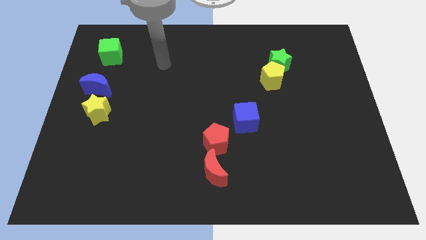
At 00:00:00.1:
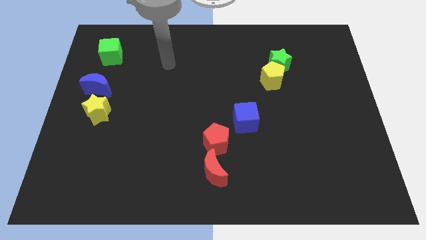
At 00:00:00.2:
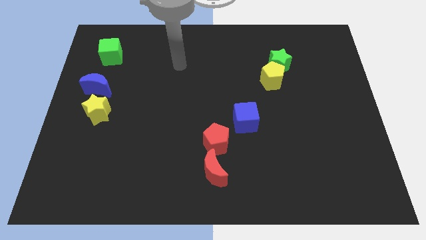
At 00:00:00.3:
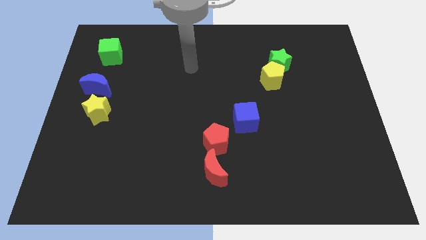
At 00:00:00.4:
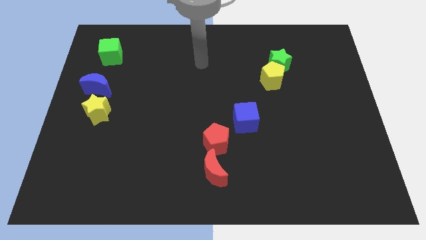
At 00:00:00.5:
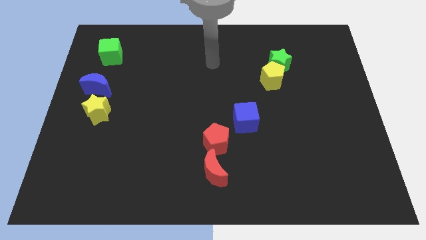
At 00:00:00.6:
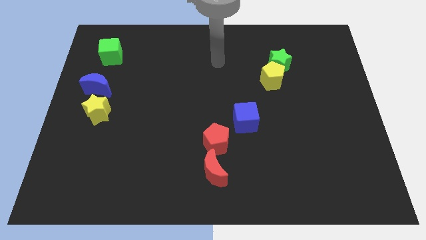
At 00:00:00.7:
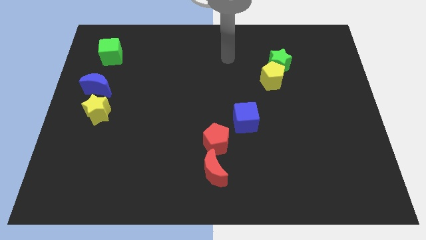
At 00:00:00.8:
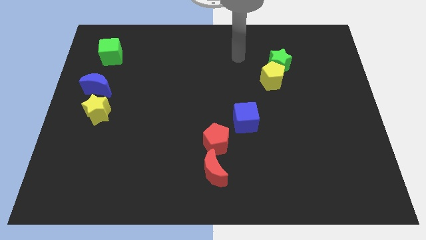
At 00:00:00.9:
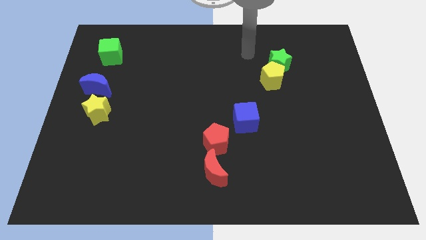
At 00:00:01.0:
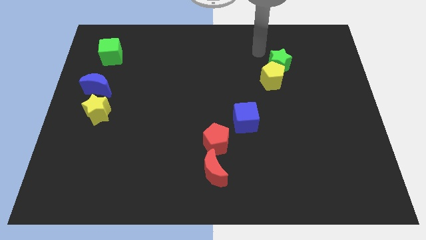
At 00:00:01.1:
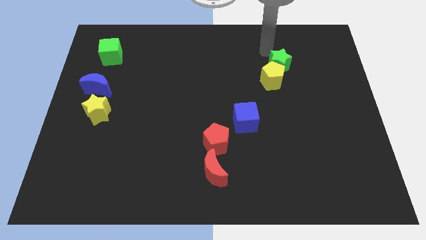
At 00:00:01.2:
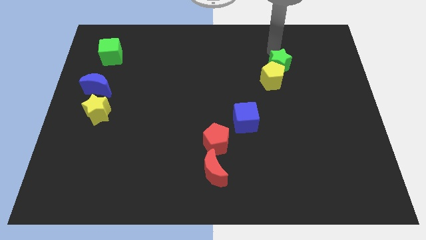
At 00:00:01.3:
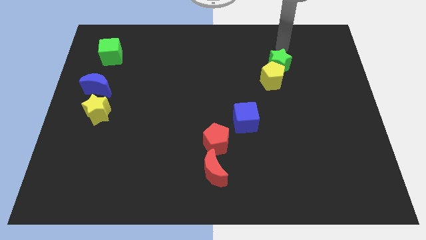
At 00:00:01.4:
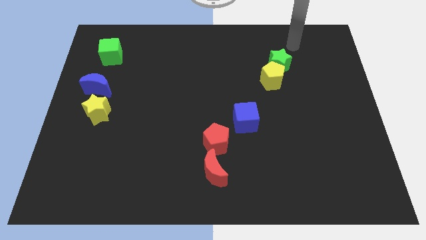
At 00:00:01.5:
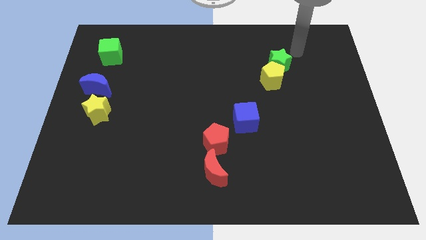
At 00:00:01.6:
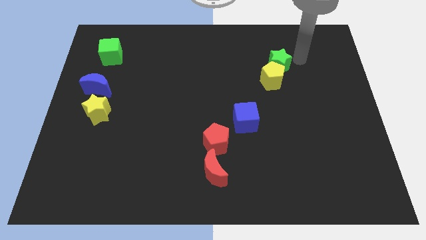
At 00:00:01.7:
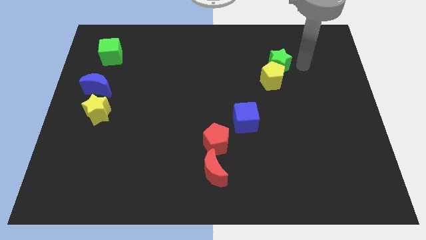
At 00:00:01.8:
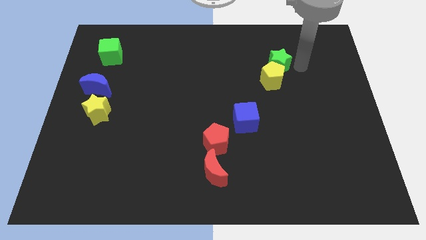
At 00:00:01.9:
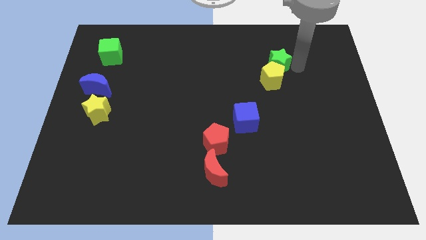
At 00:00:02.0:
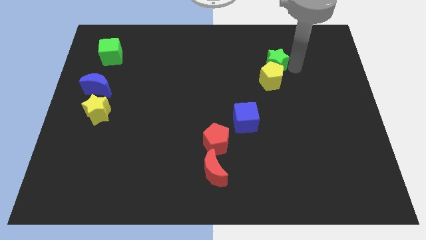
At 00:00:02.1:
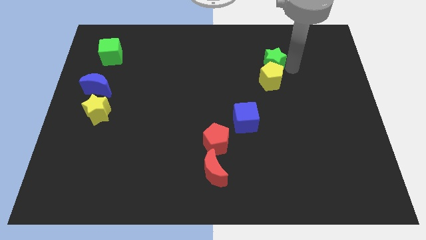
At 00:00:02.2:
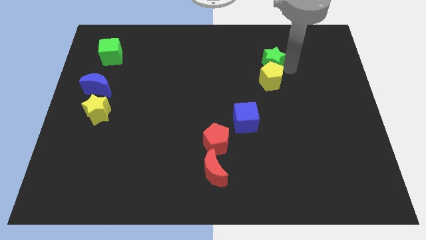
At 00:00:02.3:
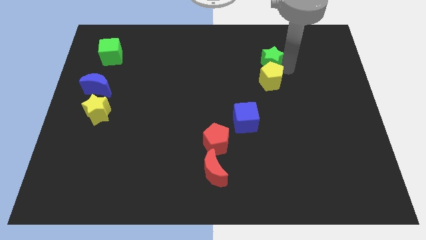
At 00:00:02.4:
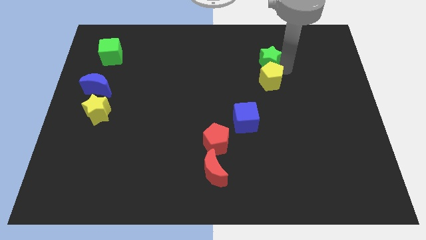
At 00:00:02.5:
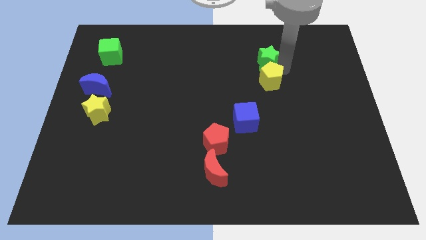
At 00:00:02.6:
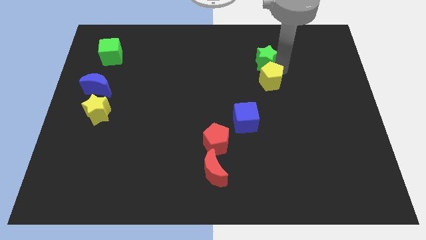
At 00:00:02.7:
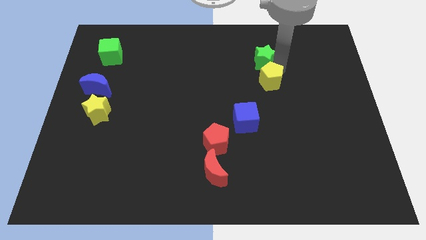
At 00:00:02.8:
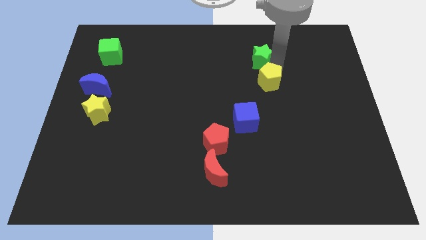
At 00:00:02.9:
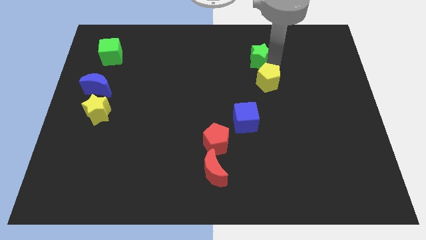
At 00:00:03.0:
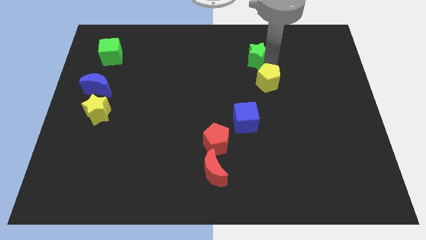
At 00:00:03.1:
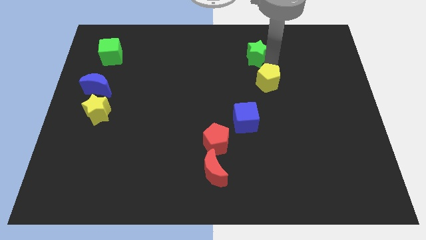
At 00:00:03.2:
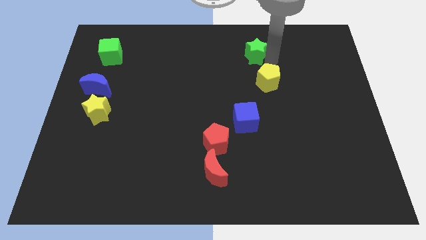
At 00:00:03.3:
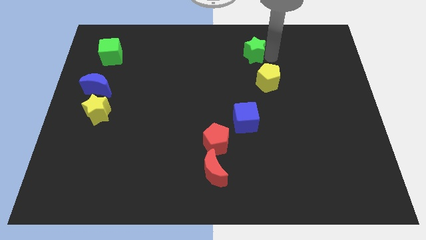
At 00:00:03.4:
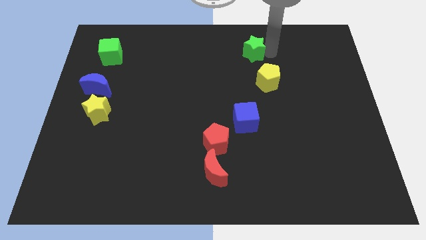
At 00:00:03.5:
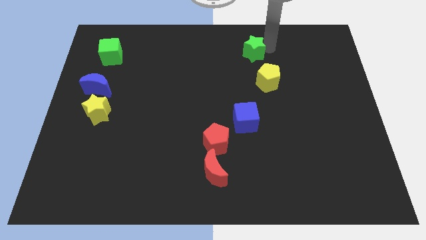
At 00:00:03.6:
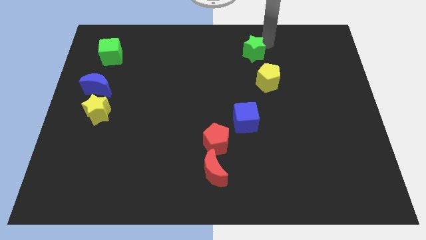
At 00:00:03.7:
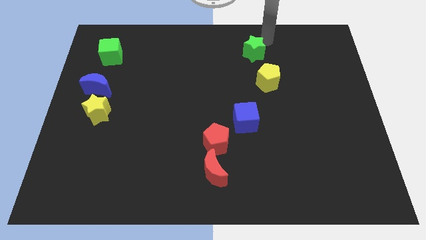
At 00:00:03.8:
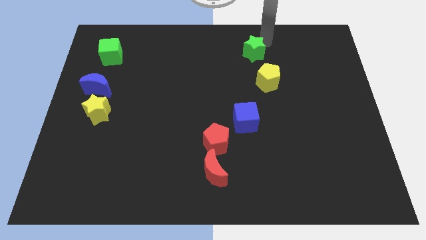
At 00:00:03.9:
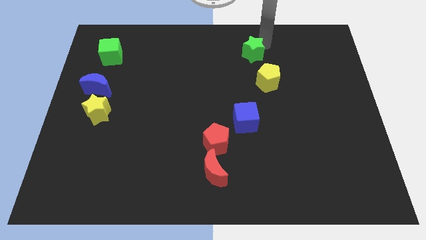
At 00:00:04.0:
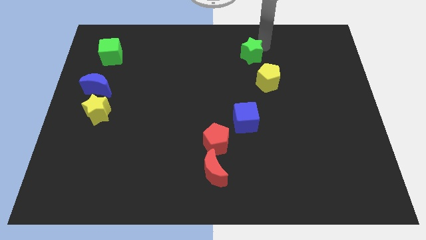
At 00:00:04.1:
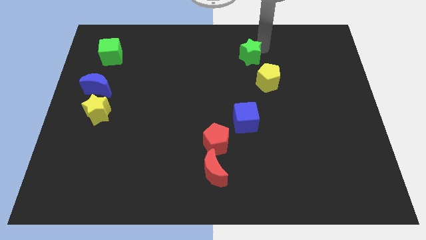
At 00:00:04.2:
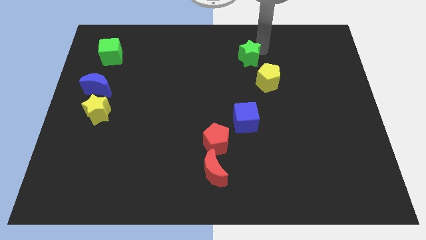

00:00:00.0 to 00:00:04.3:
move the green star a little left

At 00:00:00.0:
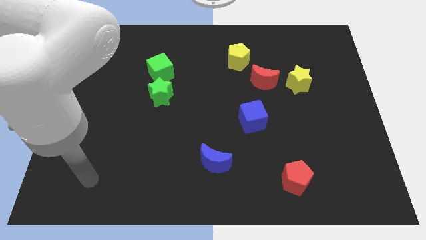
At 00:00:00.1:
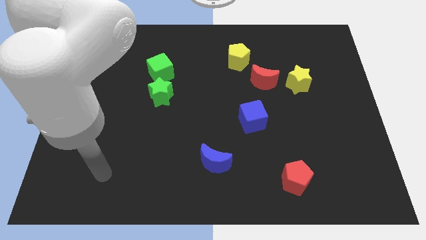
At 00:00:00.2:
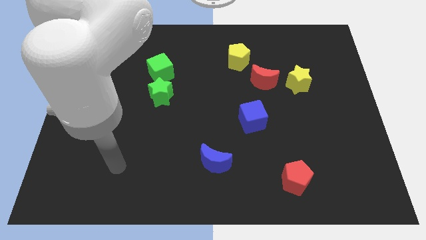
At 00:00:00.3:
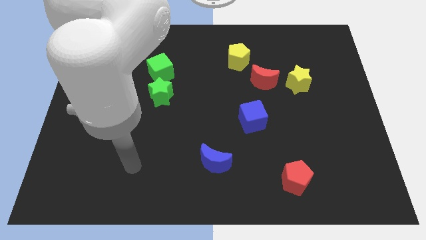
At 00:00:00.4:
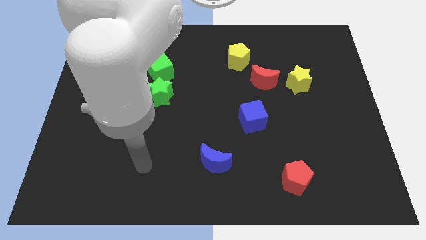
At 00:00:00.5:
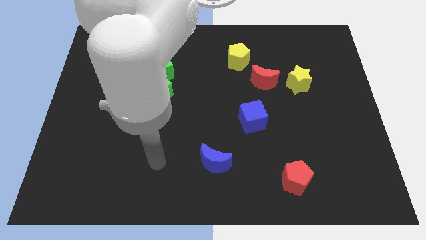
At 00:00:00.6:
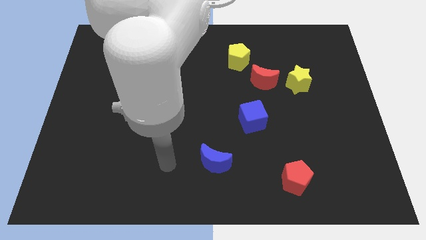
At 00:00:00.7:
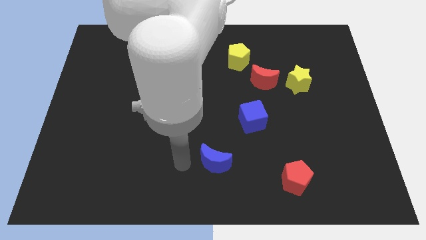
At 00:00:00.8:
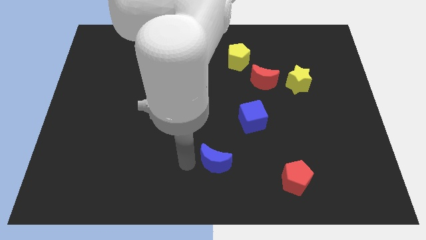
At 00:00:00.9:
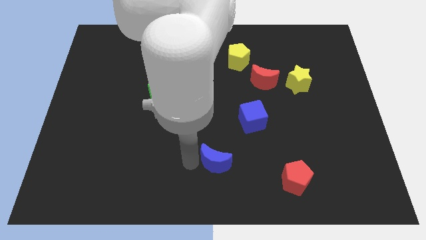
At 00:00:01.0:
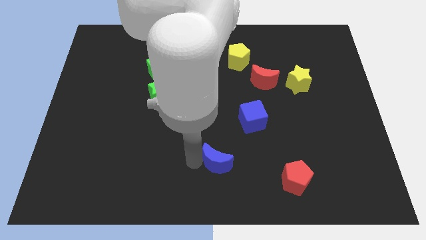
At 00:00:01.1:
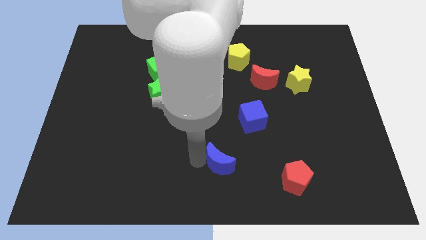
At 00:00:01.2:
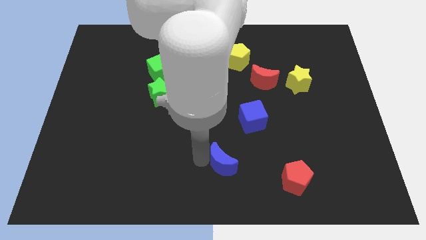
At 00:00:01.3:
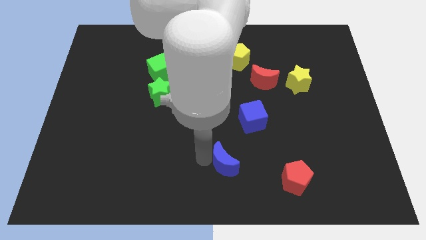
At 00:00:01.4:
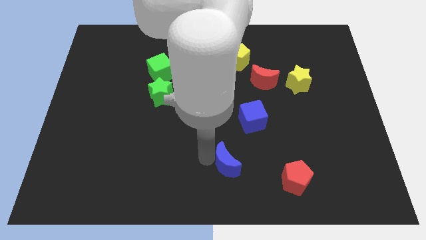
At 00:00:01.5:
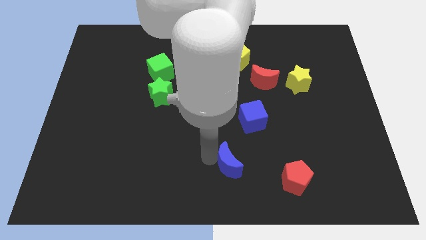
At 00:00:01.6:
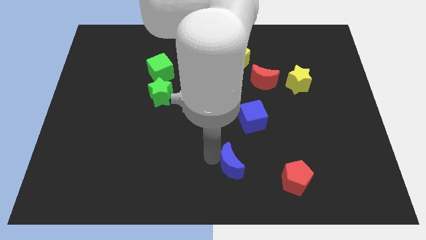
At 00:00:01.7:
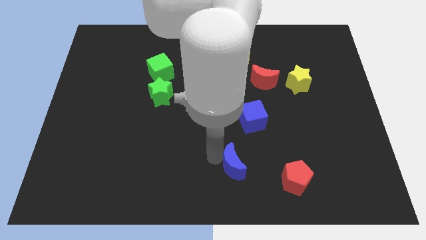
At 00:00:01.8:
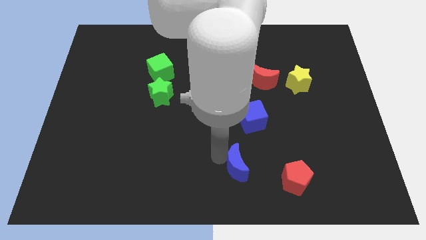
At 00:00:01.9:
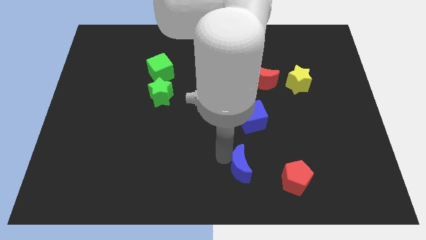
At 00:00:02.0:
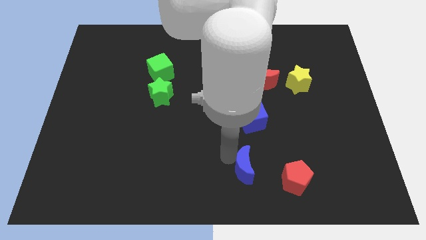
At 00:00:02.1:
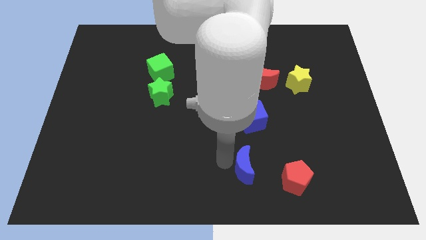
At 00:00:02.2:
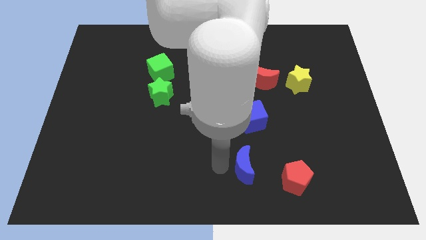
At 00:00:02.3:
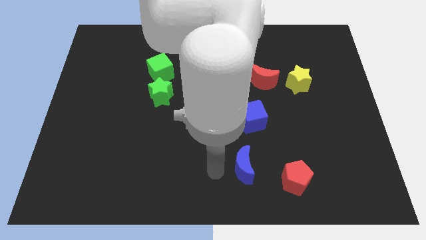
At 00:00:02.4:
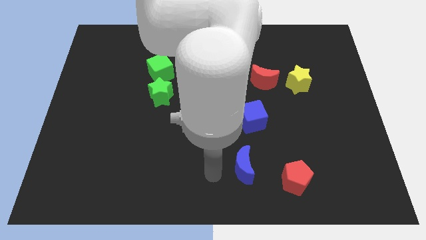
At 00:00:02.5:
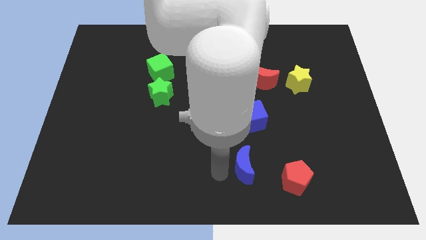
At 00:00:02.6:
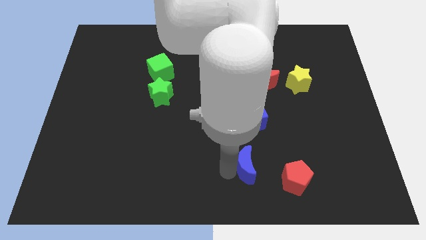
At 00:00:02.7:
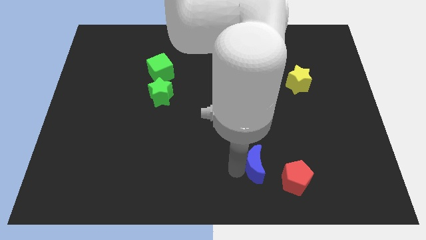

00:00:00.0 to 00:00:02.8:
push the blue moon somewhat right

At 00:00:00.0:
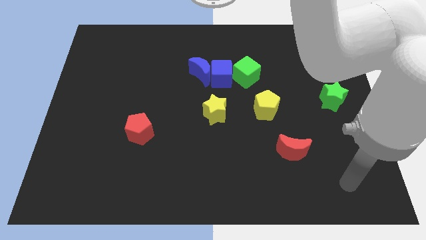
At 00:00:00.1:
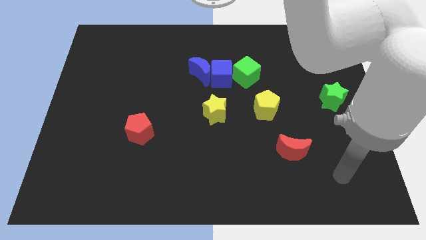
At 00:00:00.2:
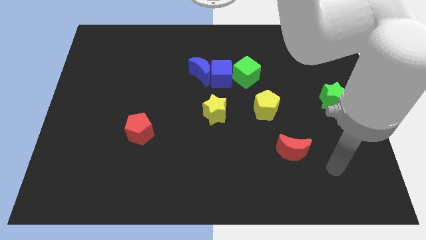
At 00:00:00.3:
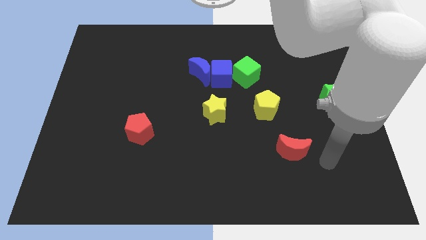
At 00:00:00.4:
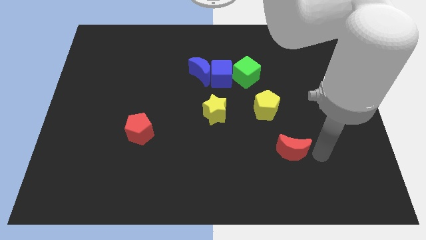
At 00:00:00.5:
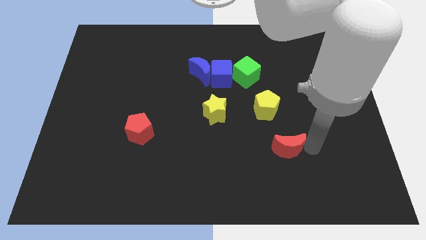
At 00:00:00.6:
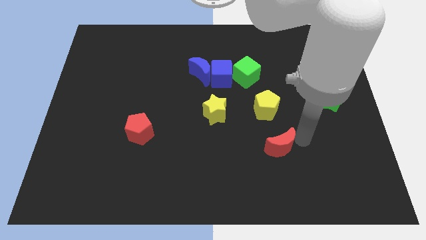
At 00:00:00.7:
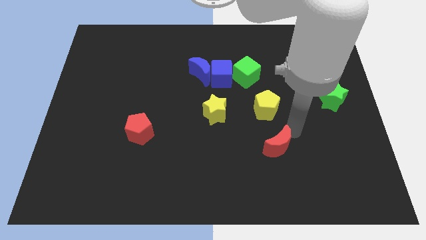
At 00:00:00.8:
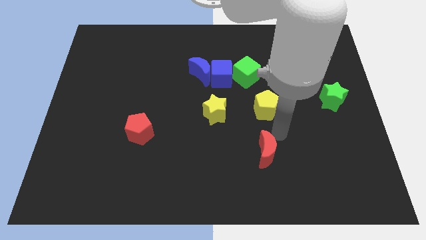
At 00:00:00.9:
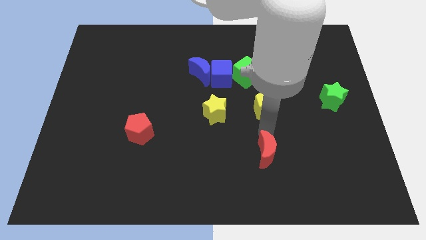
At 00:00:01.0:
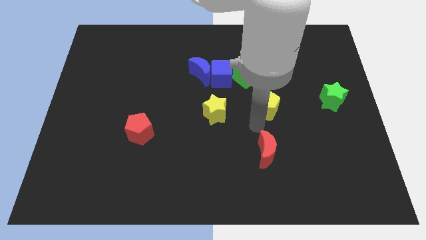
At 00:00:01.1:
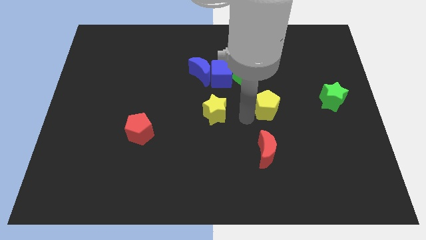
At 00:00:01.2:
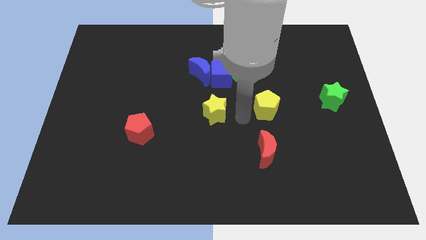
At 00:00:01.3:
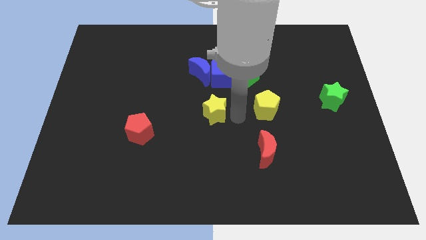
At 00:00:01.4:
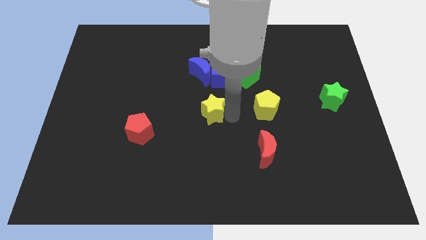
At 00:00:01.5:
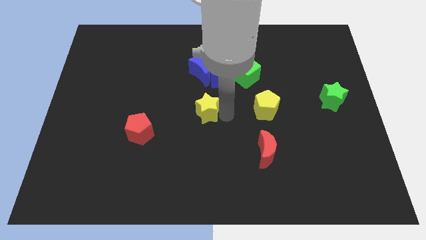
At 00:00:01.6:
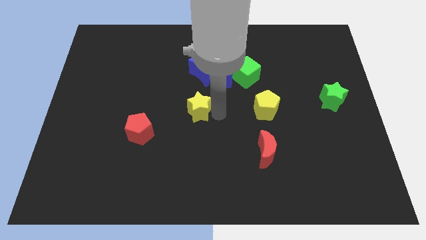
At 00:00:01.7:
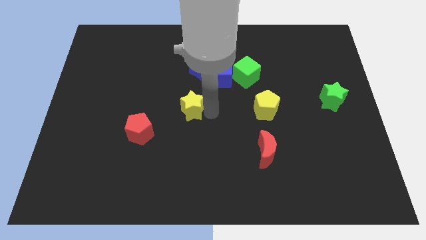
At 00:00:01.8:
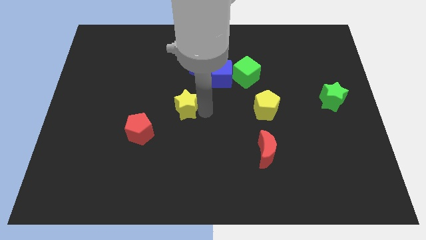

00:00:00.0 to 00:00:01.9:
slightly slide the yellow star to the left
